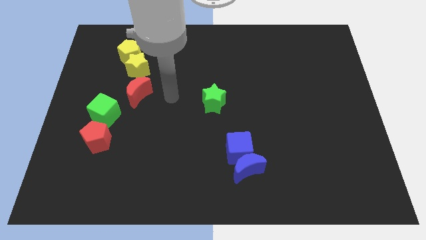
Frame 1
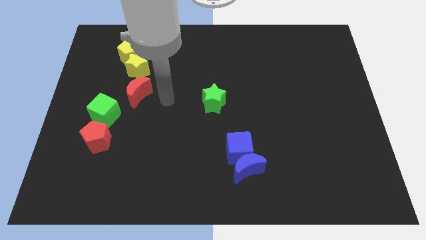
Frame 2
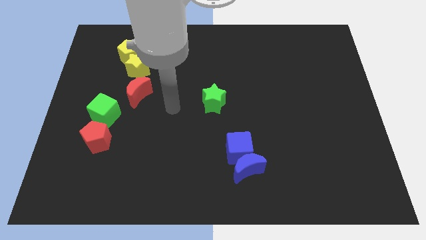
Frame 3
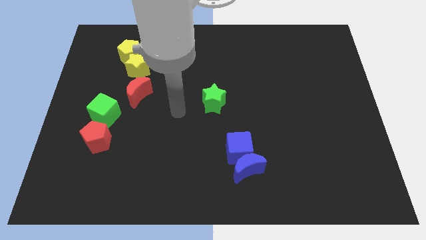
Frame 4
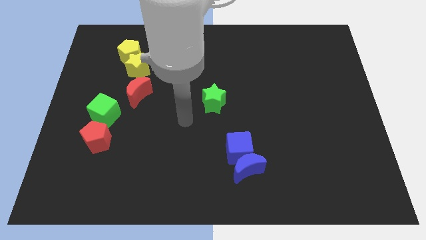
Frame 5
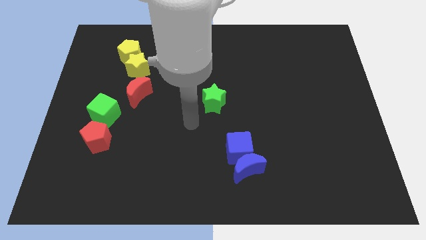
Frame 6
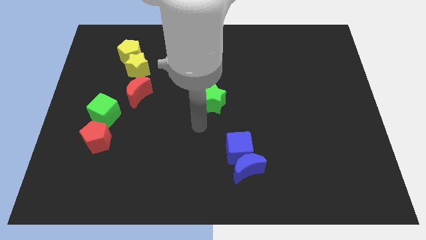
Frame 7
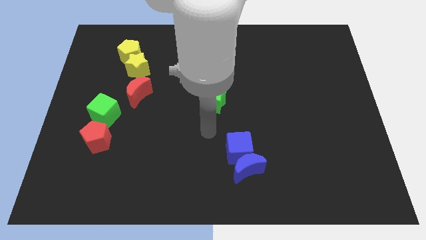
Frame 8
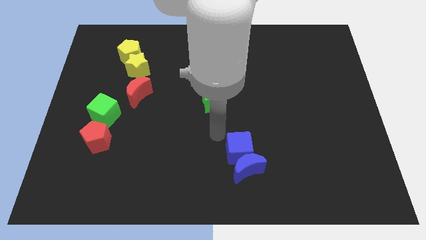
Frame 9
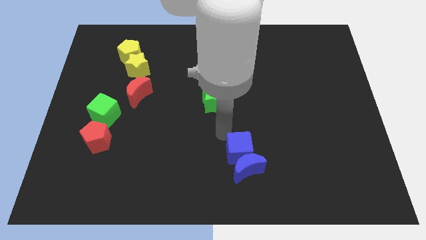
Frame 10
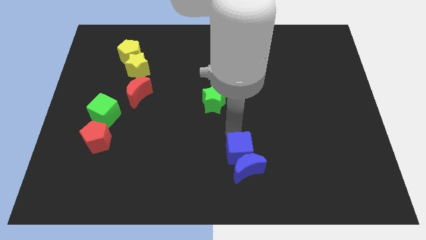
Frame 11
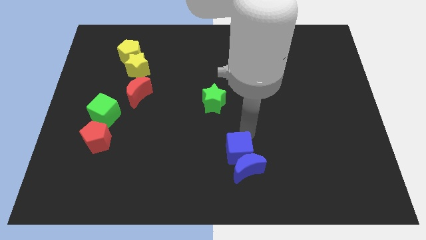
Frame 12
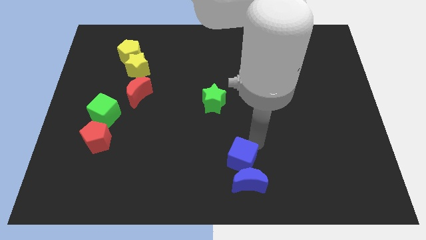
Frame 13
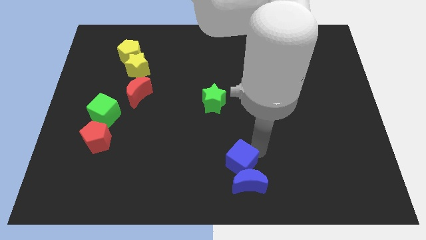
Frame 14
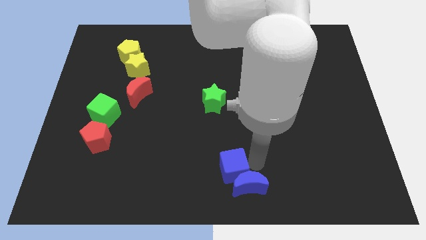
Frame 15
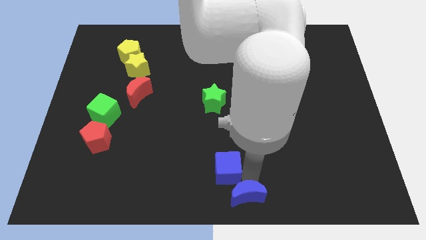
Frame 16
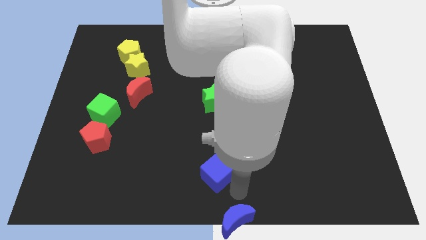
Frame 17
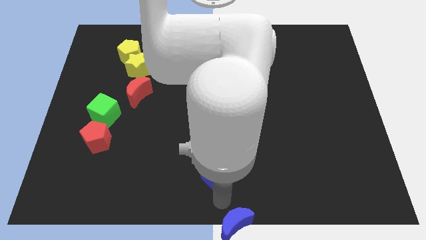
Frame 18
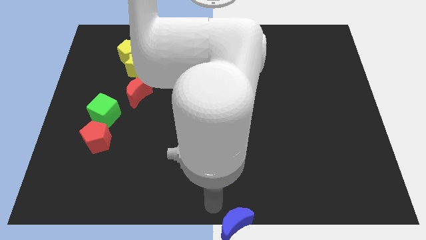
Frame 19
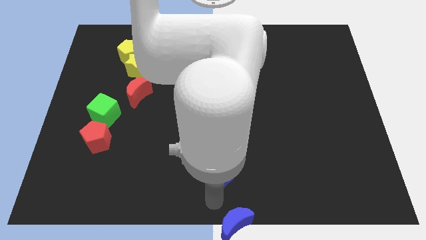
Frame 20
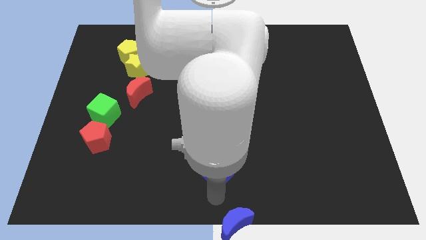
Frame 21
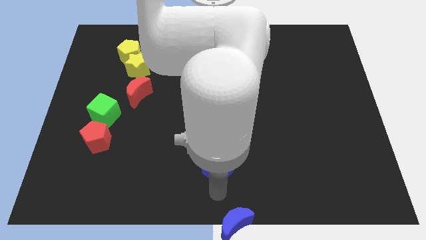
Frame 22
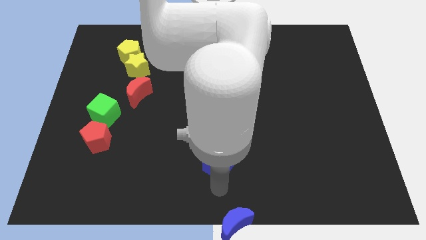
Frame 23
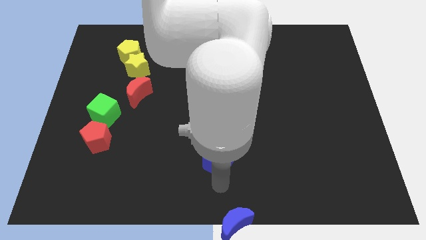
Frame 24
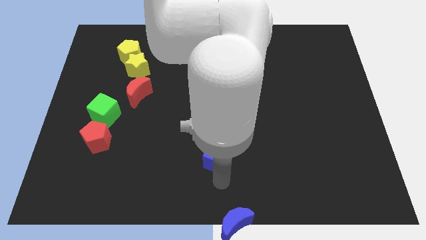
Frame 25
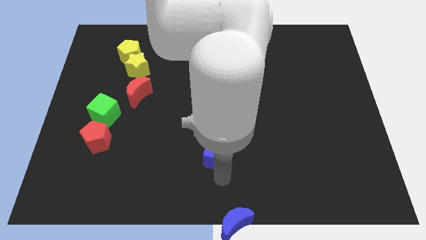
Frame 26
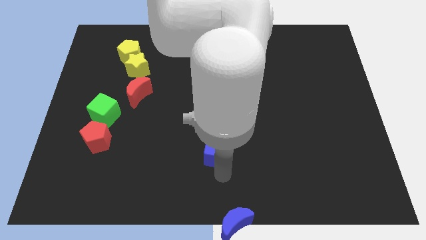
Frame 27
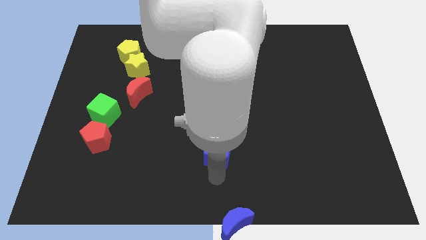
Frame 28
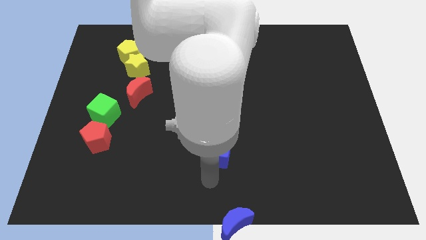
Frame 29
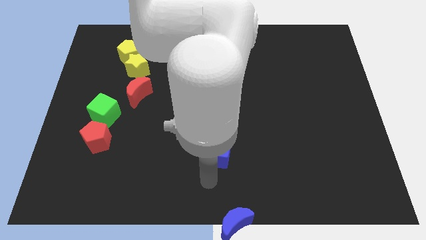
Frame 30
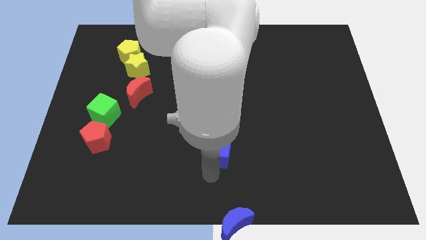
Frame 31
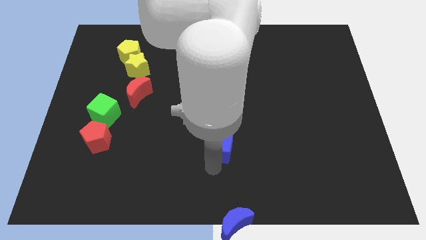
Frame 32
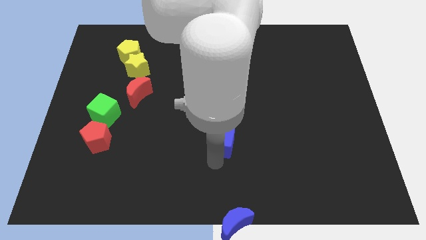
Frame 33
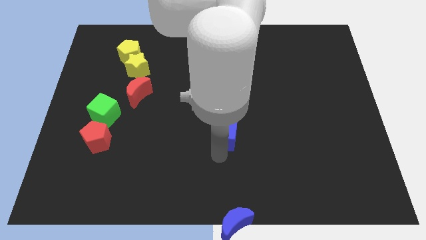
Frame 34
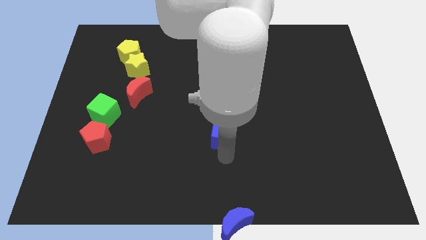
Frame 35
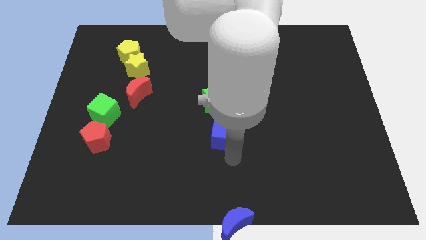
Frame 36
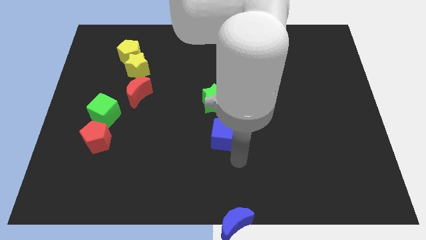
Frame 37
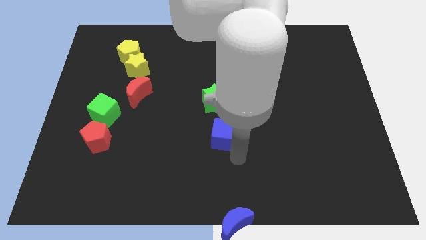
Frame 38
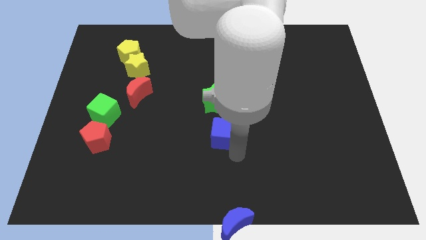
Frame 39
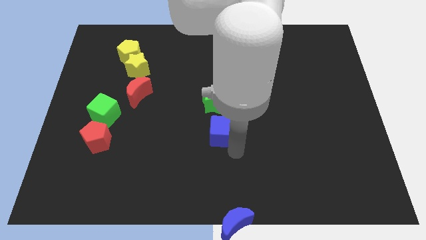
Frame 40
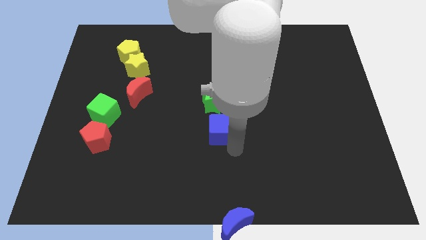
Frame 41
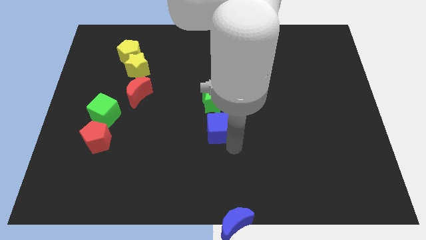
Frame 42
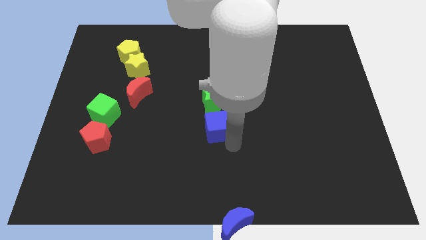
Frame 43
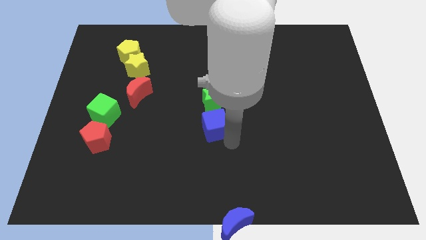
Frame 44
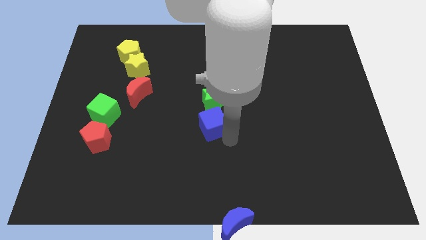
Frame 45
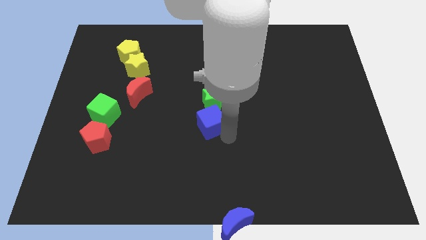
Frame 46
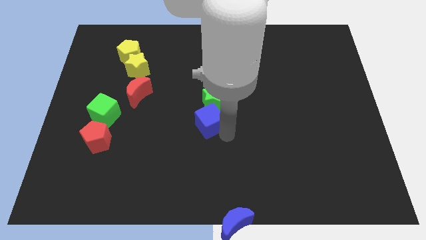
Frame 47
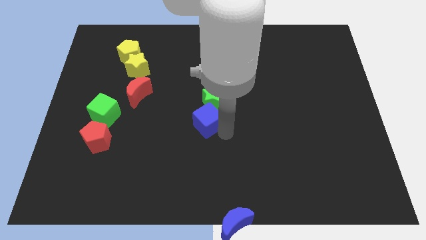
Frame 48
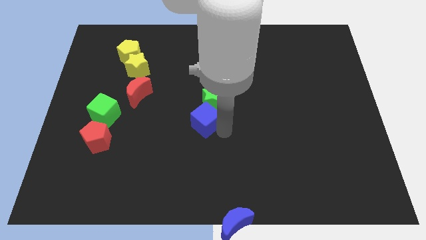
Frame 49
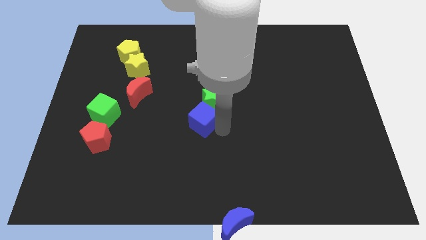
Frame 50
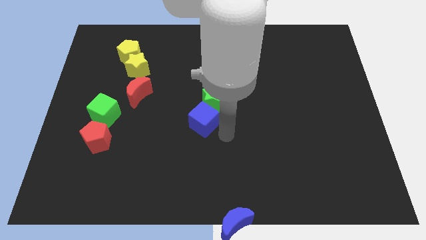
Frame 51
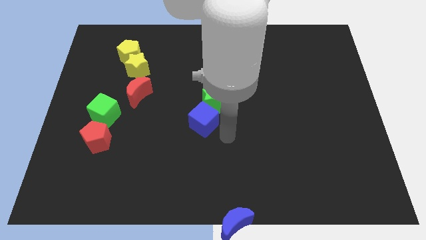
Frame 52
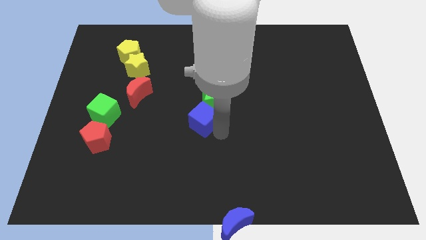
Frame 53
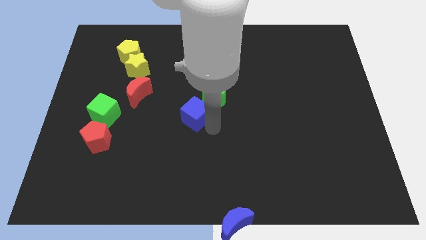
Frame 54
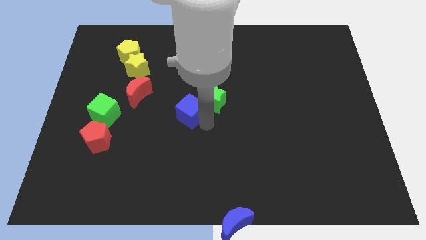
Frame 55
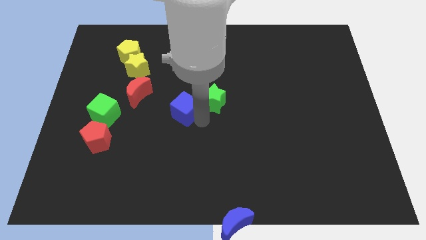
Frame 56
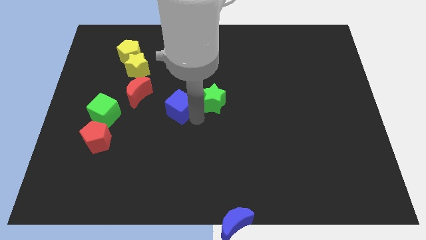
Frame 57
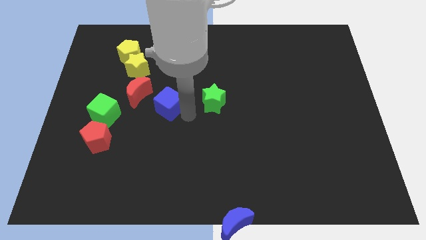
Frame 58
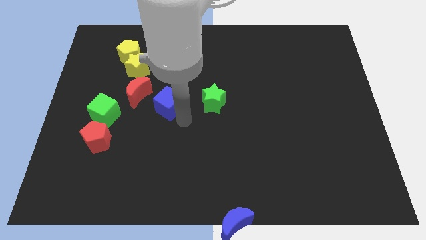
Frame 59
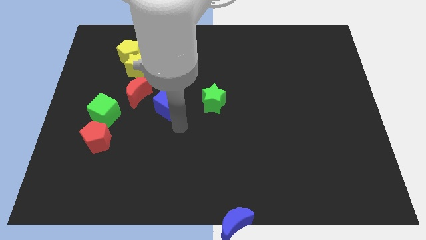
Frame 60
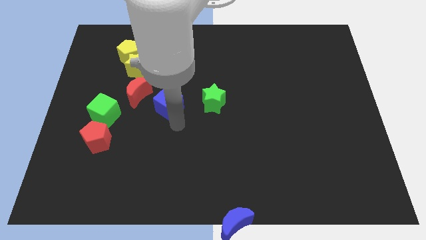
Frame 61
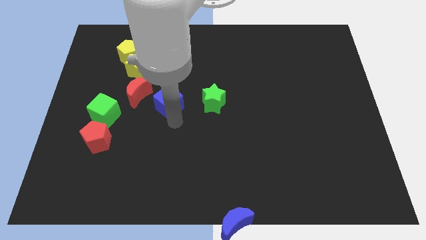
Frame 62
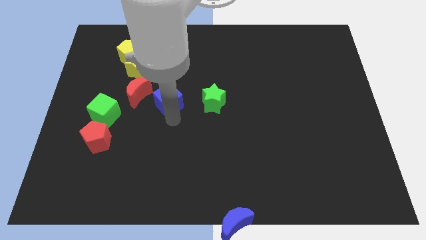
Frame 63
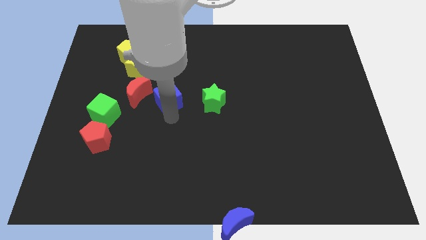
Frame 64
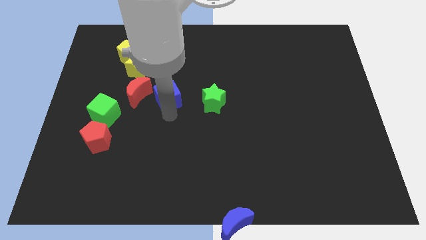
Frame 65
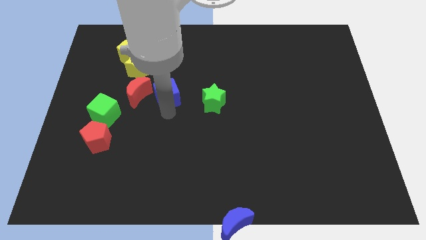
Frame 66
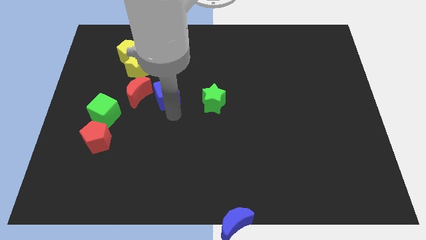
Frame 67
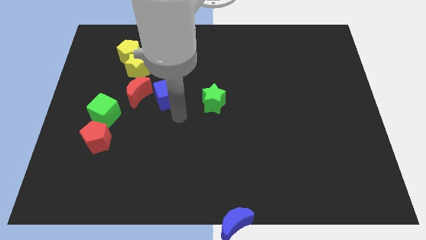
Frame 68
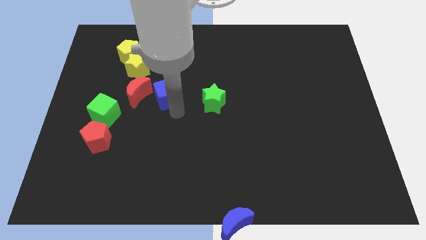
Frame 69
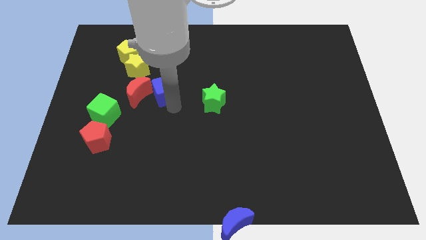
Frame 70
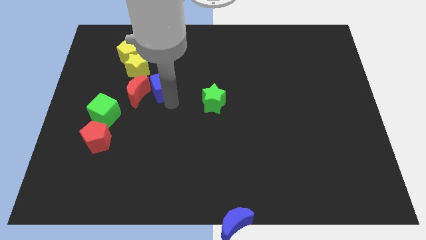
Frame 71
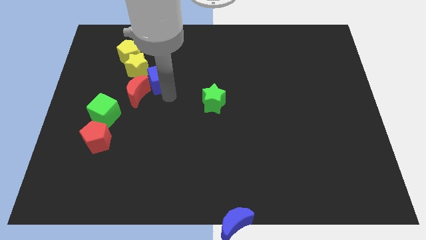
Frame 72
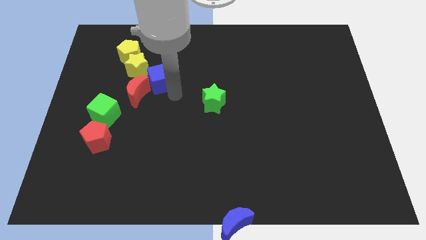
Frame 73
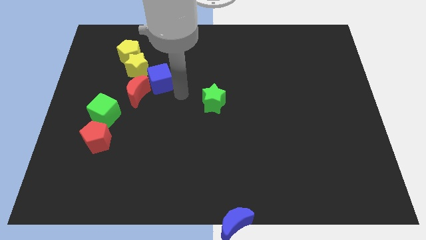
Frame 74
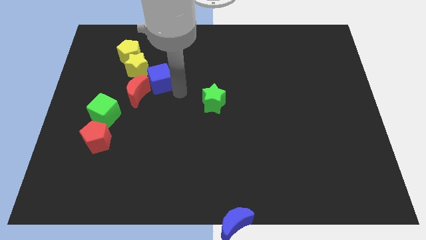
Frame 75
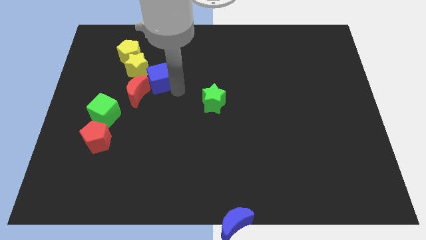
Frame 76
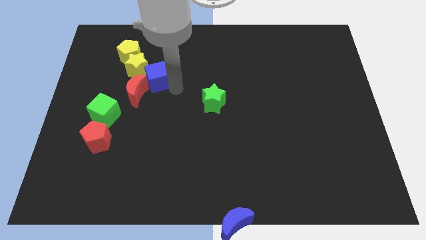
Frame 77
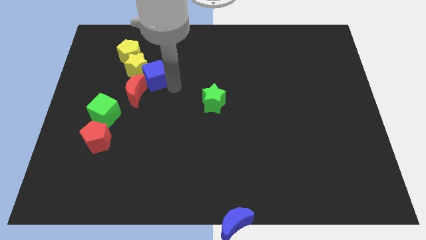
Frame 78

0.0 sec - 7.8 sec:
move the blue cube towards the yellow star
